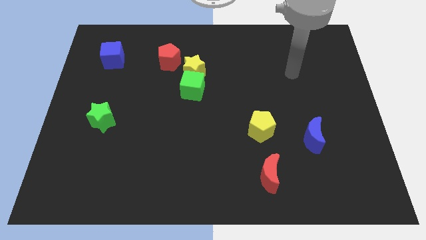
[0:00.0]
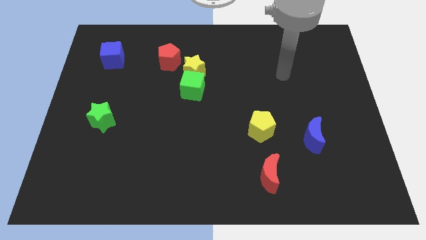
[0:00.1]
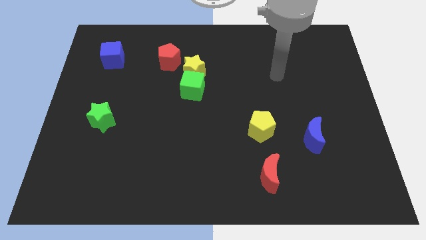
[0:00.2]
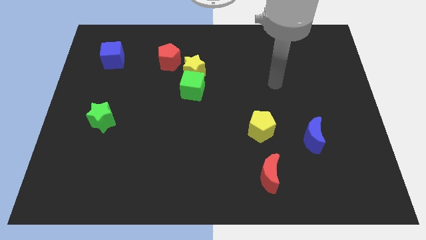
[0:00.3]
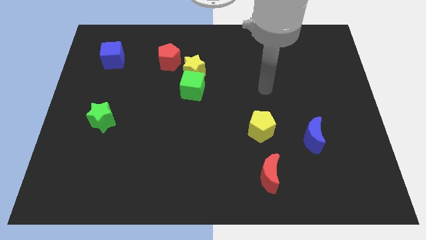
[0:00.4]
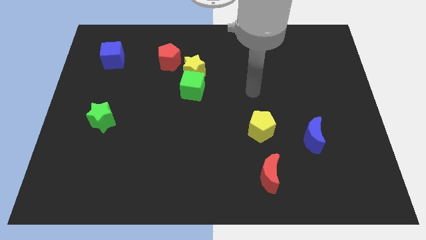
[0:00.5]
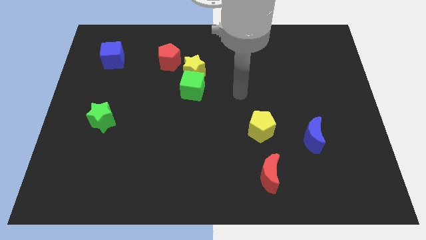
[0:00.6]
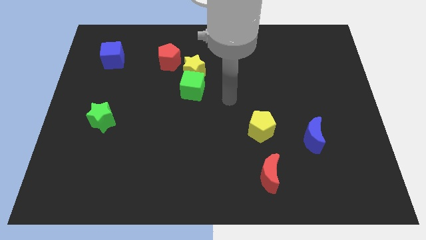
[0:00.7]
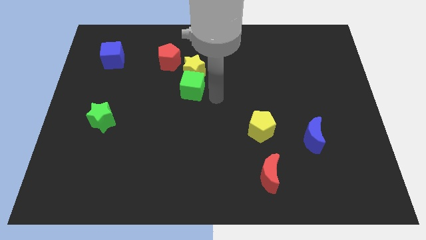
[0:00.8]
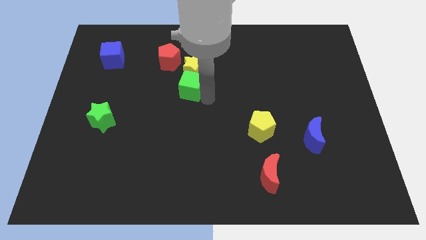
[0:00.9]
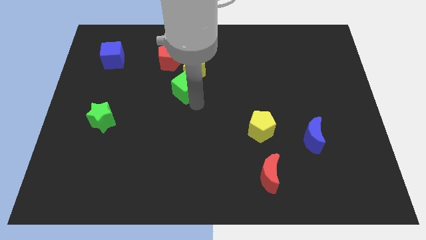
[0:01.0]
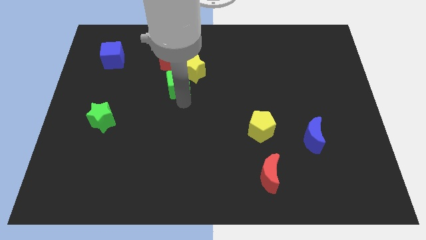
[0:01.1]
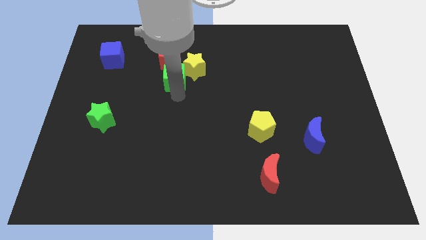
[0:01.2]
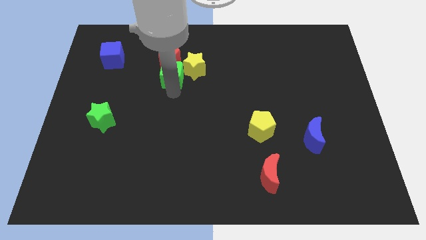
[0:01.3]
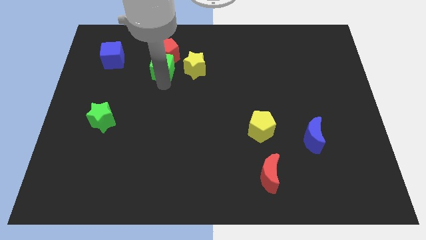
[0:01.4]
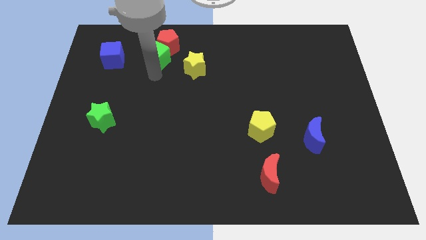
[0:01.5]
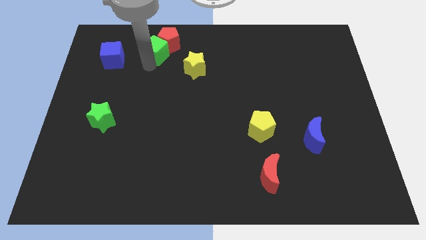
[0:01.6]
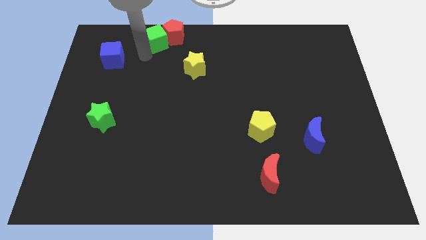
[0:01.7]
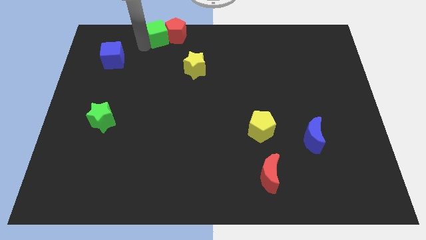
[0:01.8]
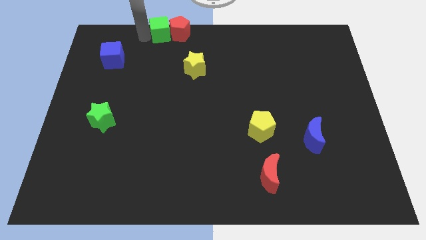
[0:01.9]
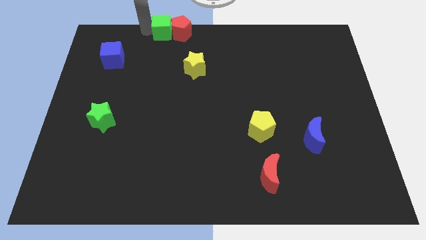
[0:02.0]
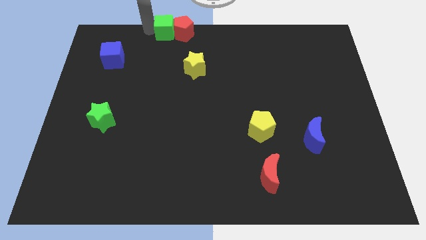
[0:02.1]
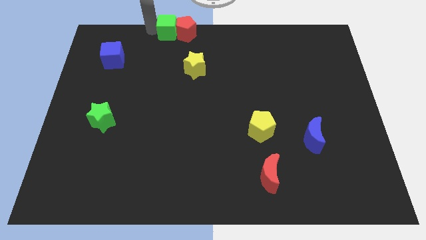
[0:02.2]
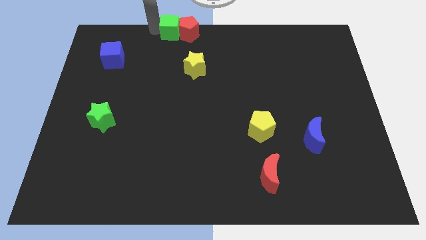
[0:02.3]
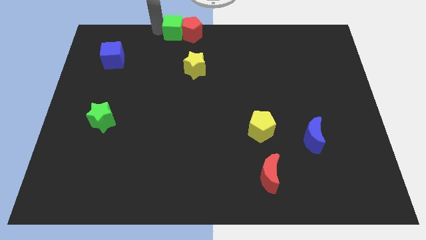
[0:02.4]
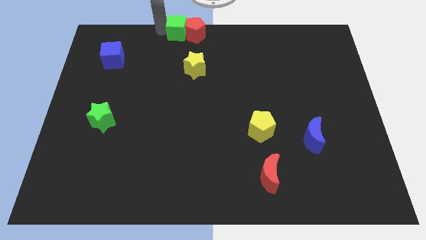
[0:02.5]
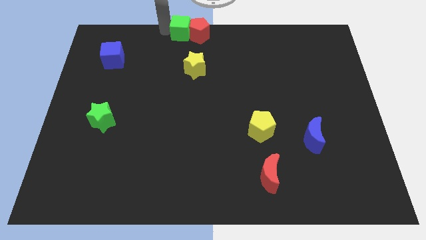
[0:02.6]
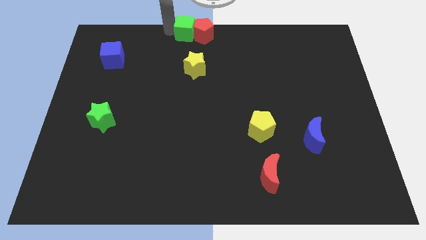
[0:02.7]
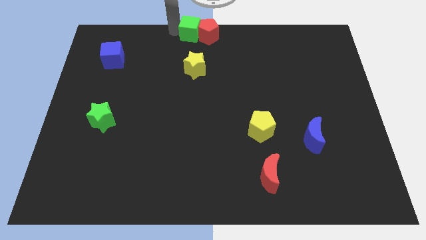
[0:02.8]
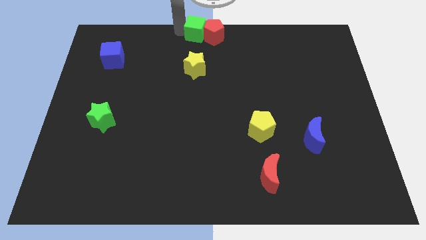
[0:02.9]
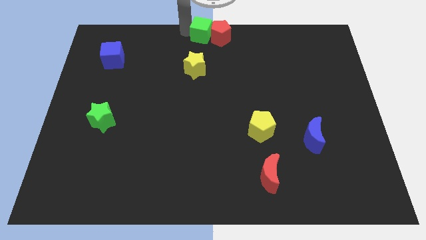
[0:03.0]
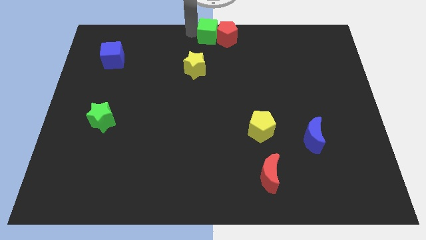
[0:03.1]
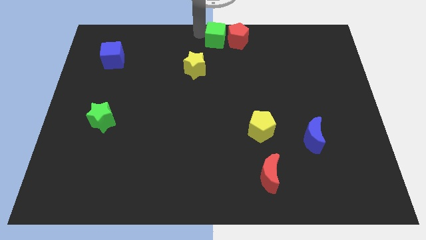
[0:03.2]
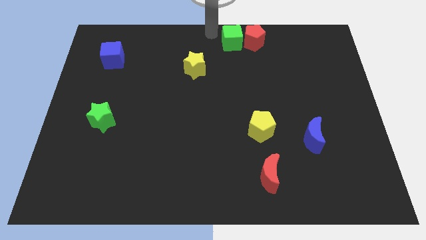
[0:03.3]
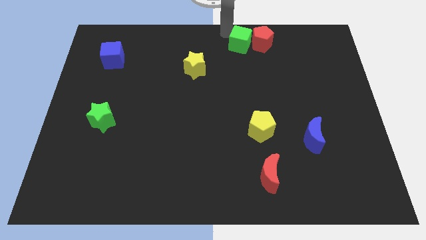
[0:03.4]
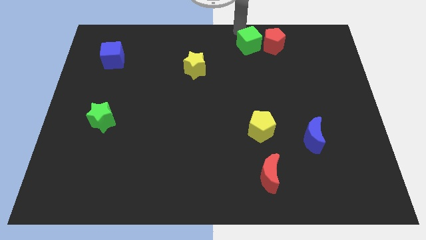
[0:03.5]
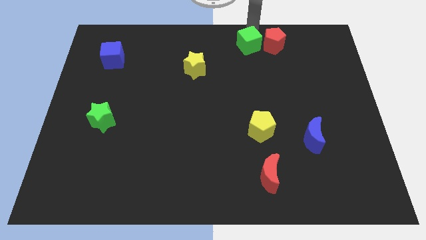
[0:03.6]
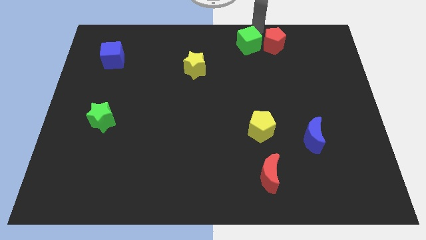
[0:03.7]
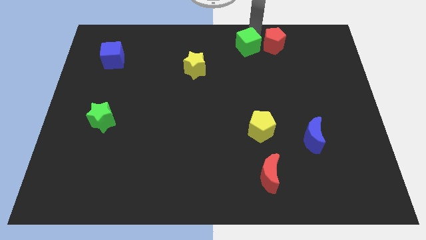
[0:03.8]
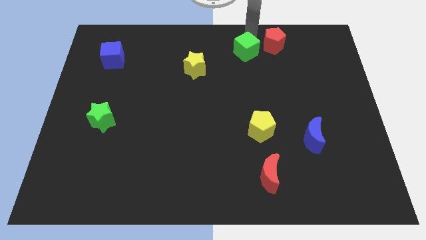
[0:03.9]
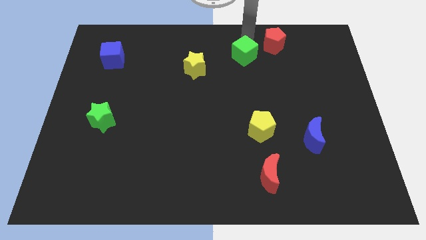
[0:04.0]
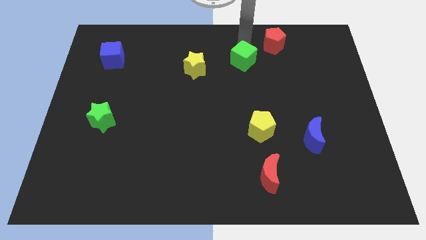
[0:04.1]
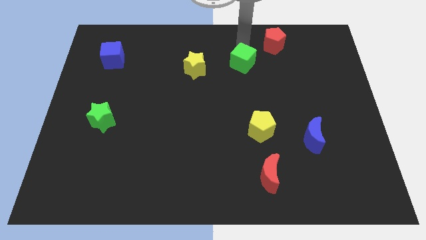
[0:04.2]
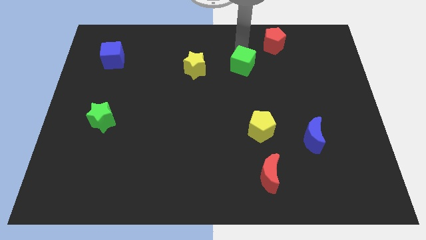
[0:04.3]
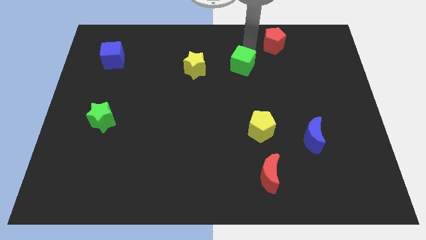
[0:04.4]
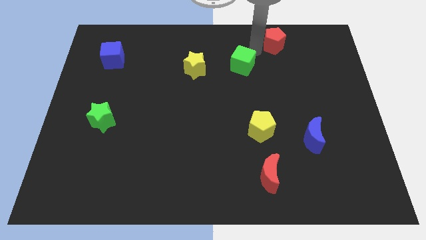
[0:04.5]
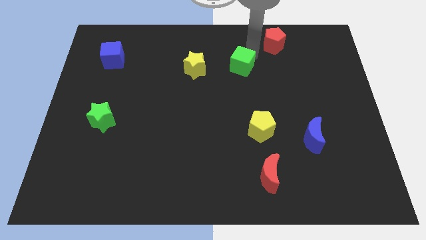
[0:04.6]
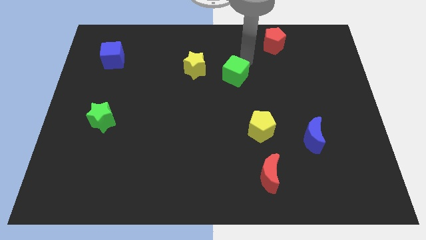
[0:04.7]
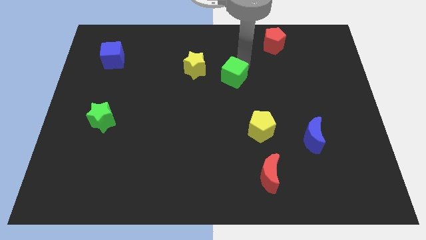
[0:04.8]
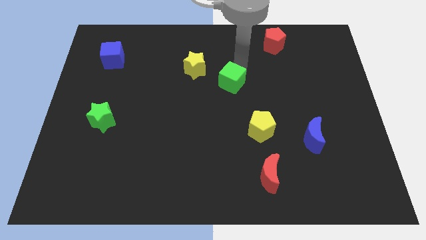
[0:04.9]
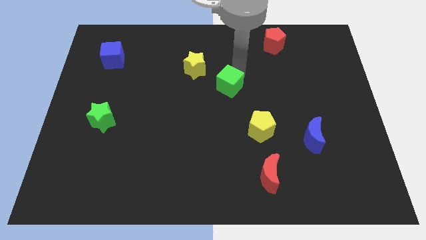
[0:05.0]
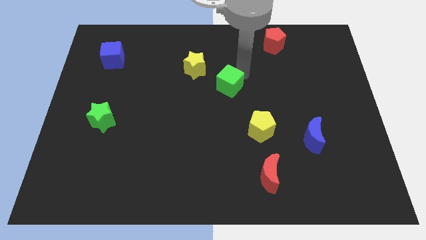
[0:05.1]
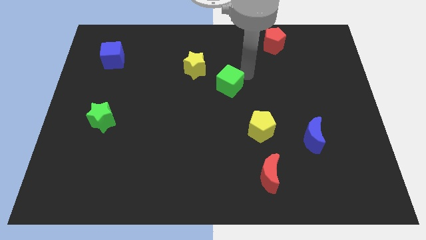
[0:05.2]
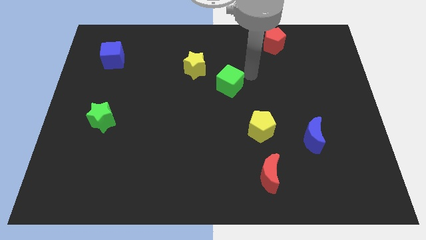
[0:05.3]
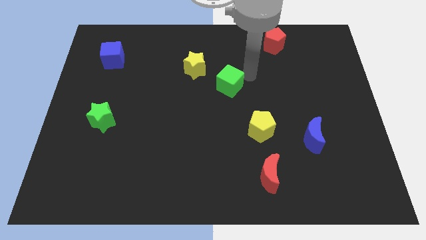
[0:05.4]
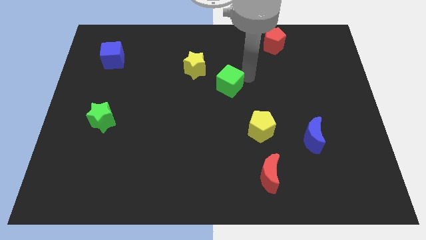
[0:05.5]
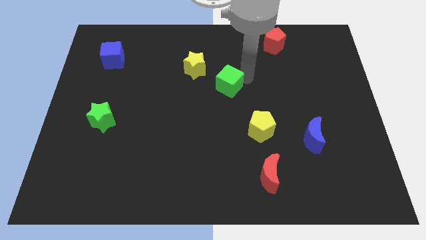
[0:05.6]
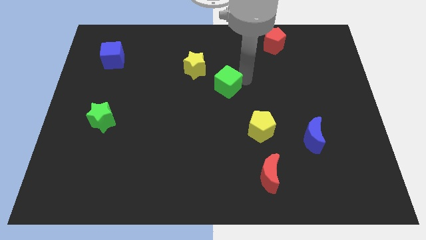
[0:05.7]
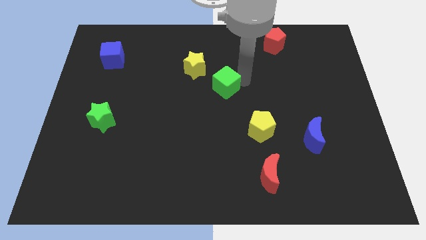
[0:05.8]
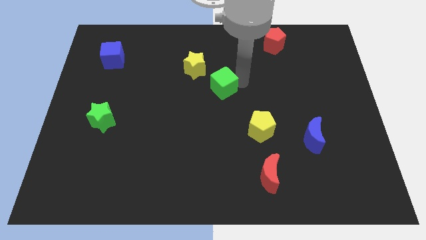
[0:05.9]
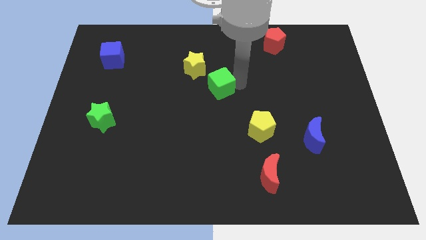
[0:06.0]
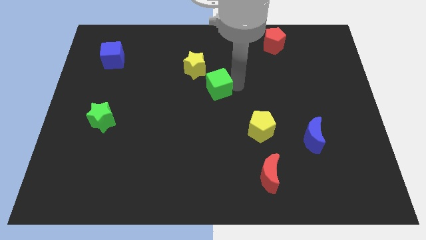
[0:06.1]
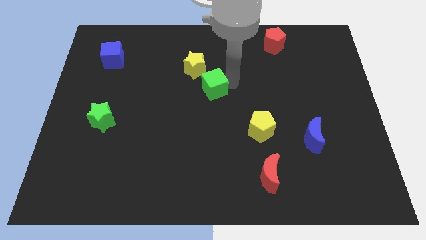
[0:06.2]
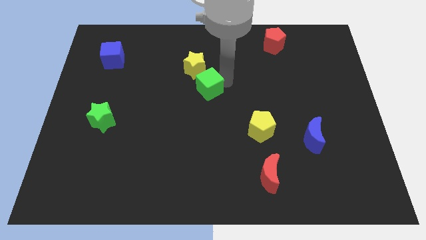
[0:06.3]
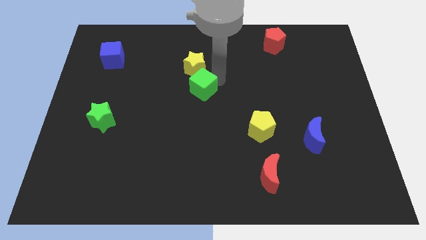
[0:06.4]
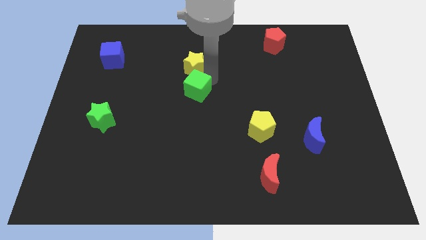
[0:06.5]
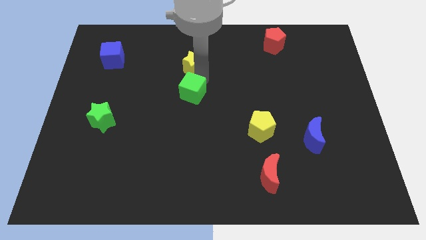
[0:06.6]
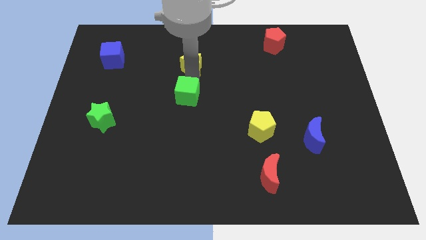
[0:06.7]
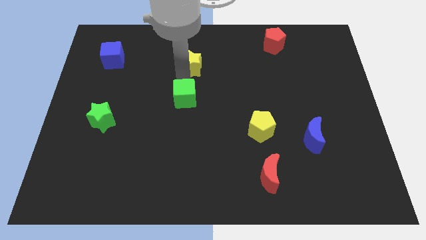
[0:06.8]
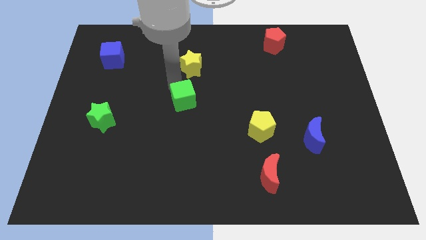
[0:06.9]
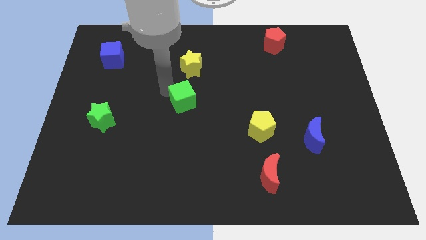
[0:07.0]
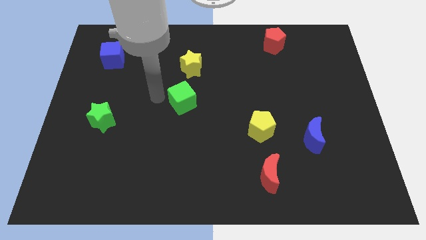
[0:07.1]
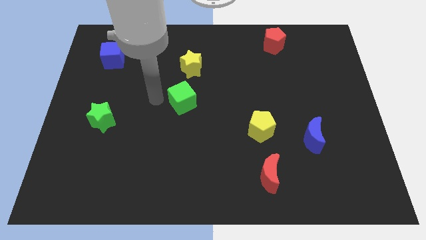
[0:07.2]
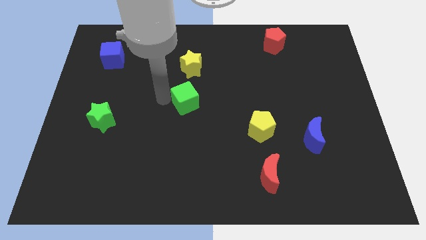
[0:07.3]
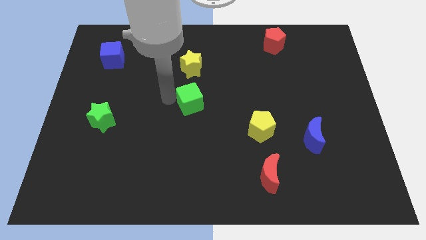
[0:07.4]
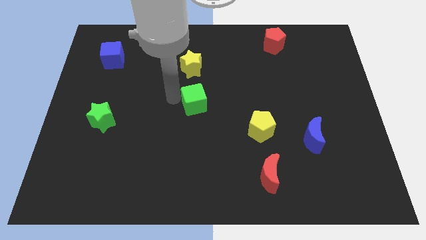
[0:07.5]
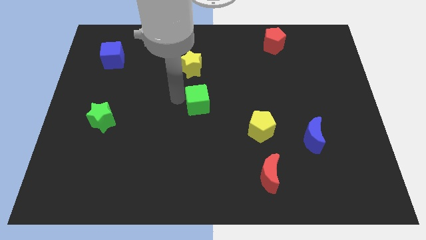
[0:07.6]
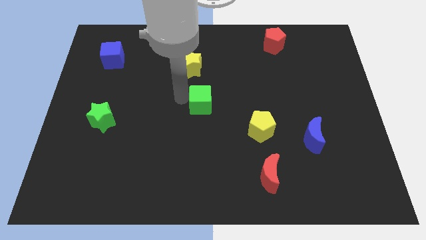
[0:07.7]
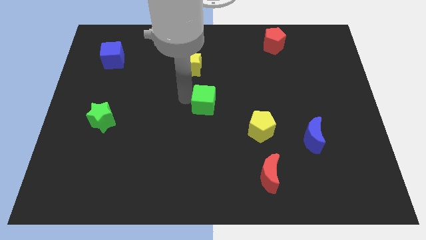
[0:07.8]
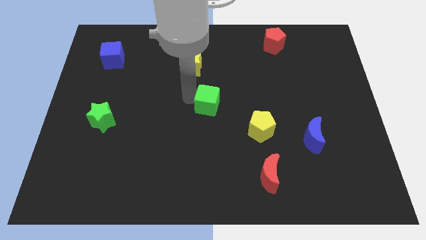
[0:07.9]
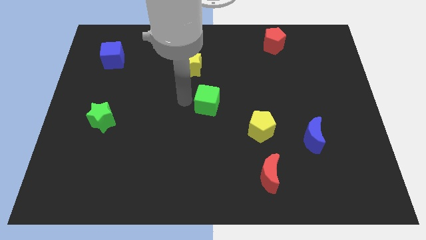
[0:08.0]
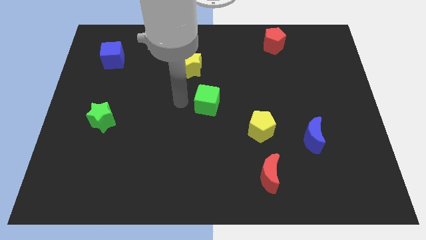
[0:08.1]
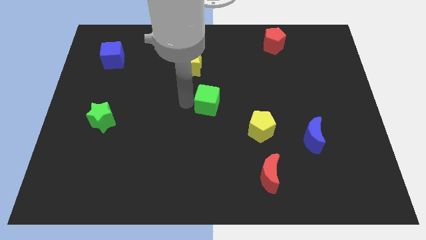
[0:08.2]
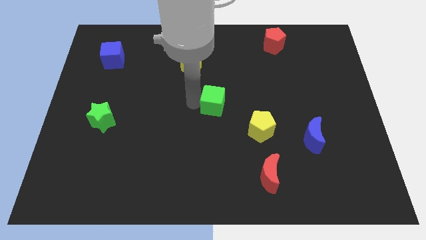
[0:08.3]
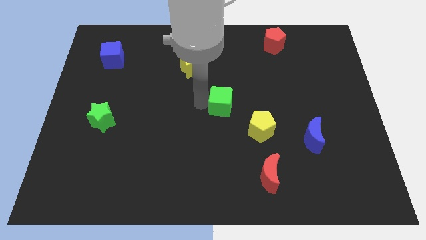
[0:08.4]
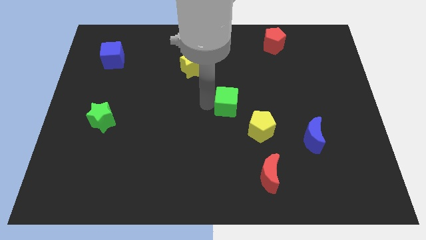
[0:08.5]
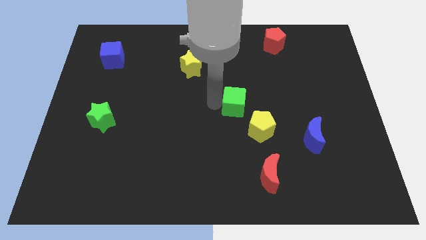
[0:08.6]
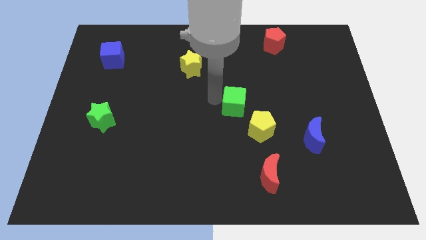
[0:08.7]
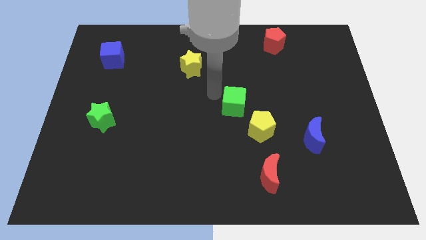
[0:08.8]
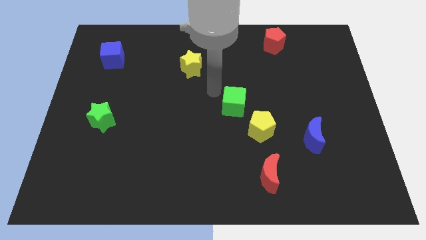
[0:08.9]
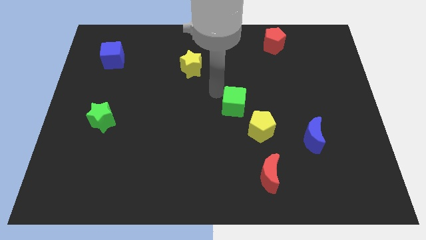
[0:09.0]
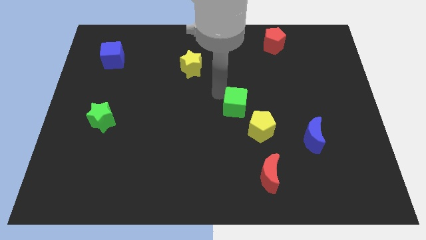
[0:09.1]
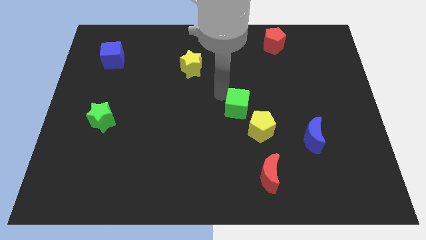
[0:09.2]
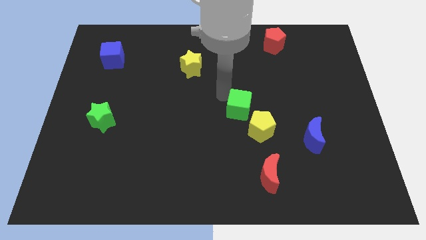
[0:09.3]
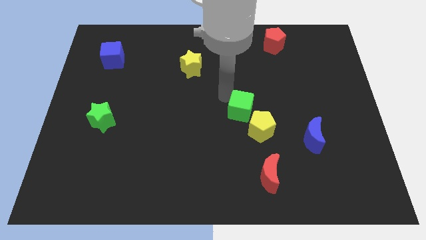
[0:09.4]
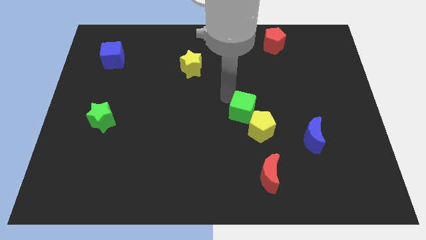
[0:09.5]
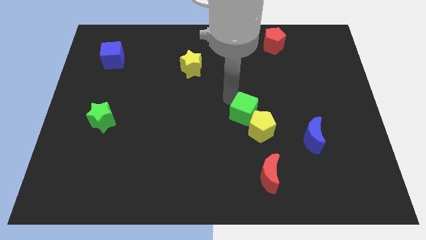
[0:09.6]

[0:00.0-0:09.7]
move the green cube close to the yellow pentagon
